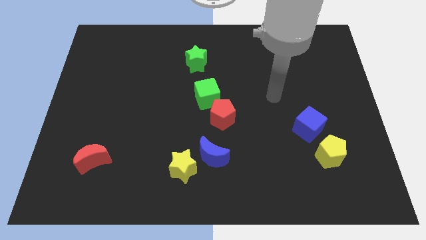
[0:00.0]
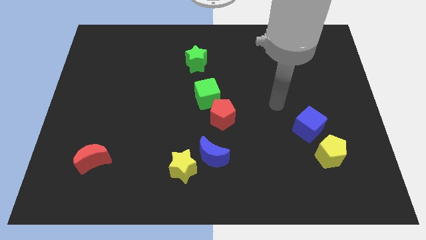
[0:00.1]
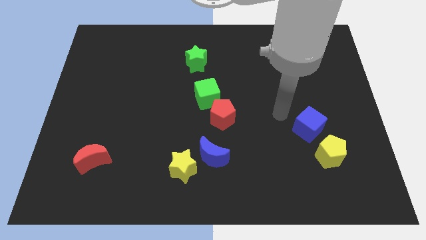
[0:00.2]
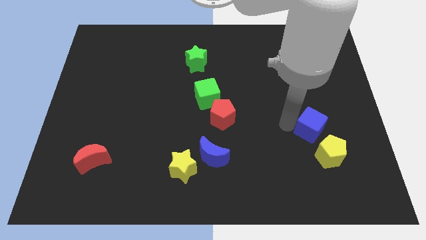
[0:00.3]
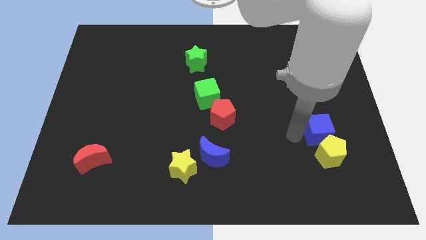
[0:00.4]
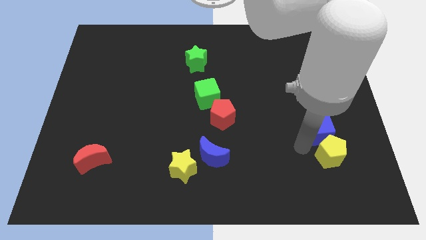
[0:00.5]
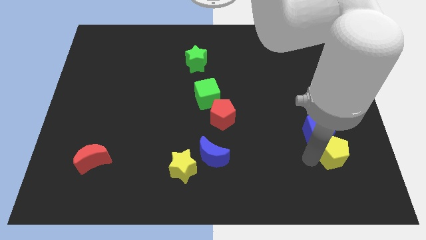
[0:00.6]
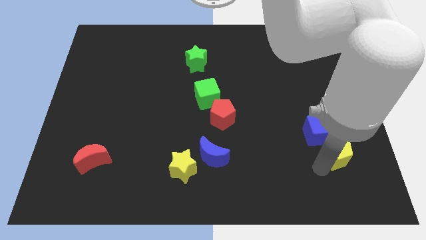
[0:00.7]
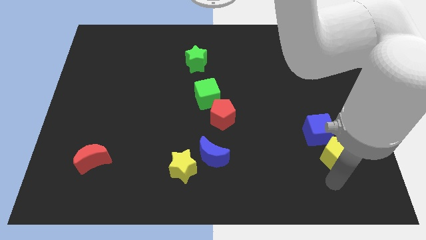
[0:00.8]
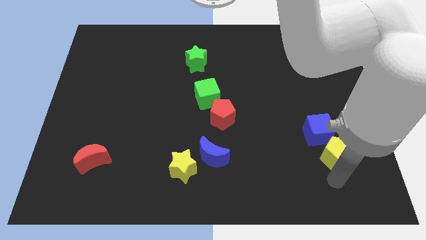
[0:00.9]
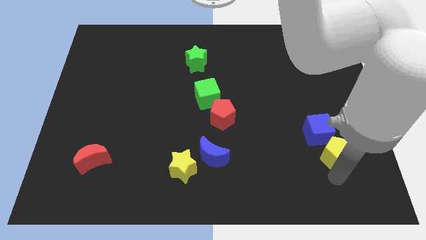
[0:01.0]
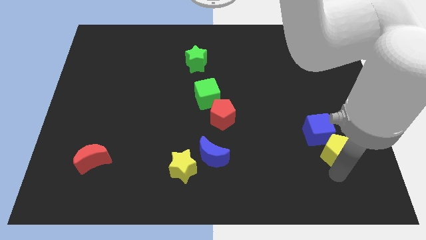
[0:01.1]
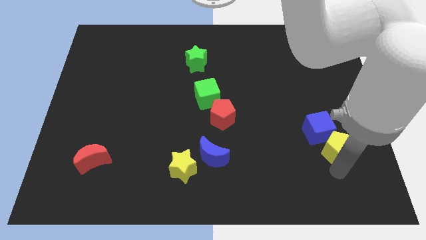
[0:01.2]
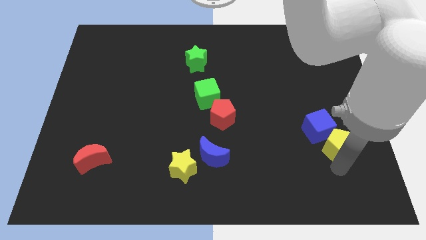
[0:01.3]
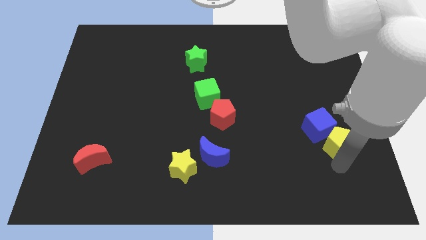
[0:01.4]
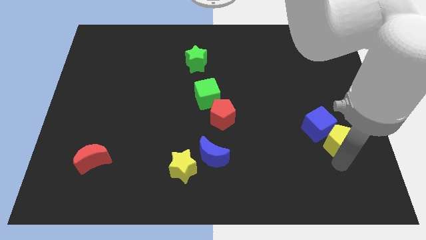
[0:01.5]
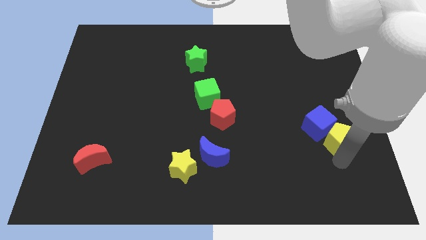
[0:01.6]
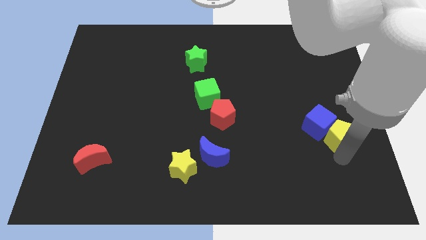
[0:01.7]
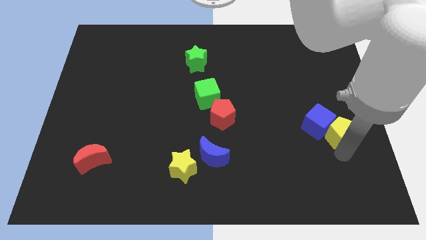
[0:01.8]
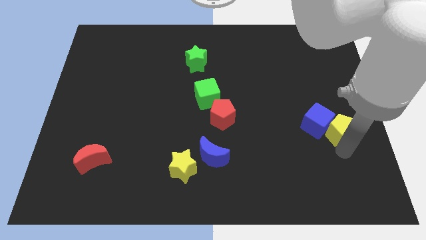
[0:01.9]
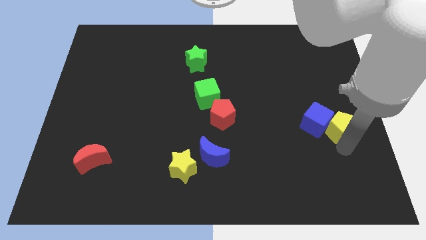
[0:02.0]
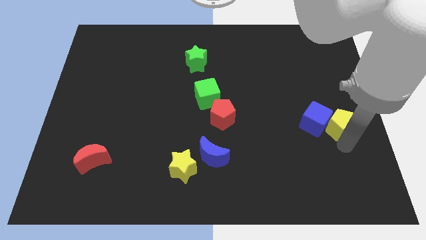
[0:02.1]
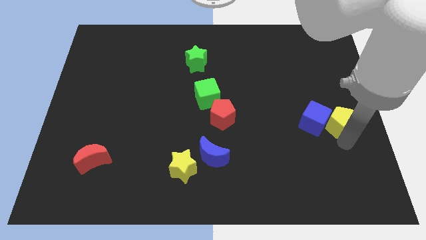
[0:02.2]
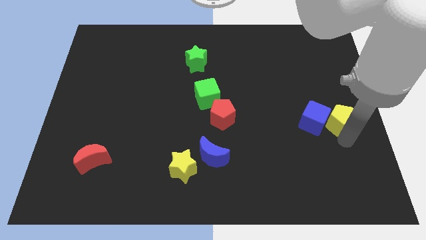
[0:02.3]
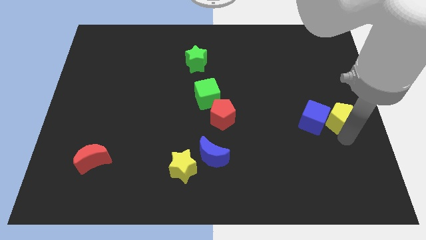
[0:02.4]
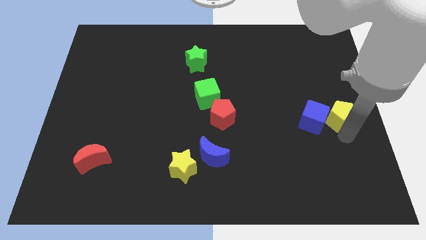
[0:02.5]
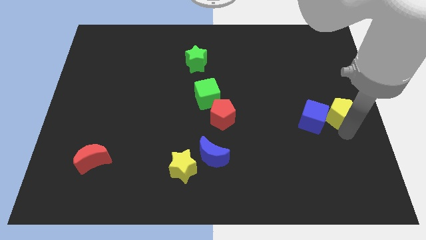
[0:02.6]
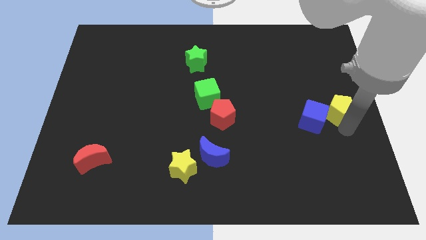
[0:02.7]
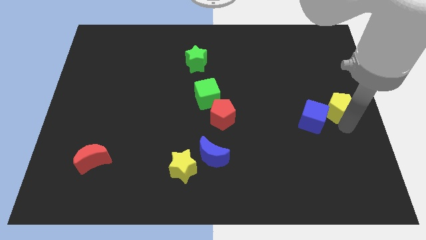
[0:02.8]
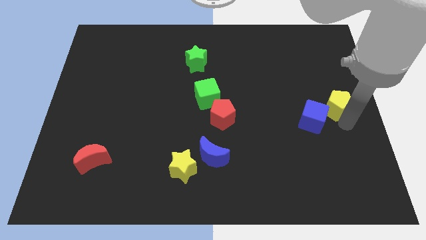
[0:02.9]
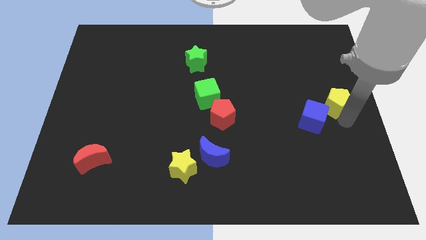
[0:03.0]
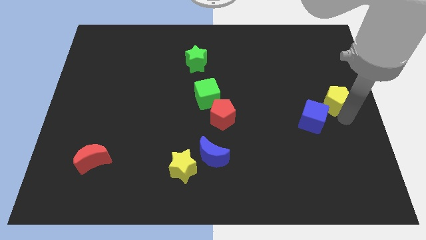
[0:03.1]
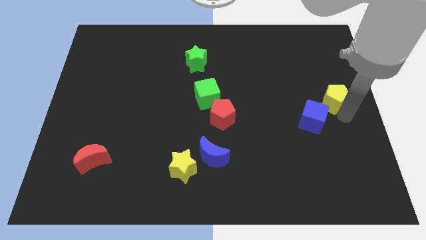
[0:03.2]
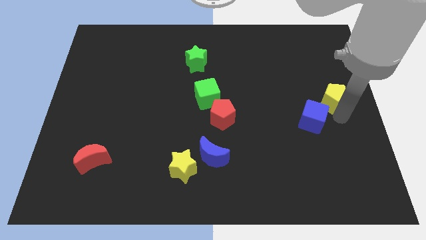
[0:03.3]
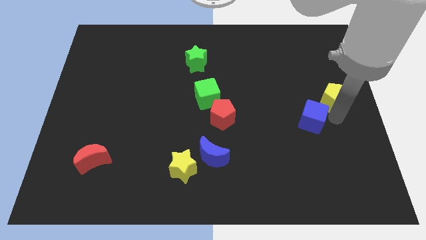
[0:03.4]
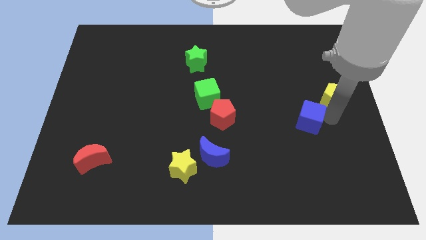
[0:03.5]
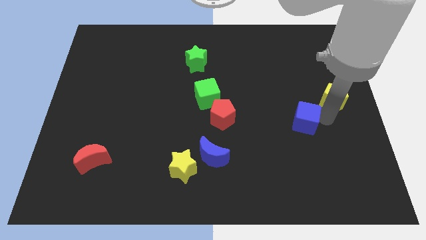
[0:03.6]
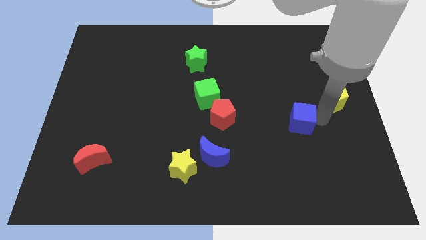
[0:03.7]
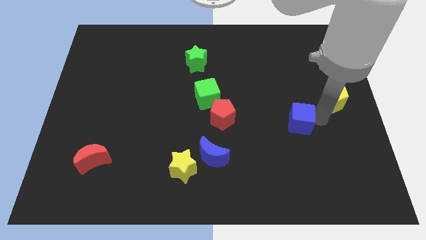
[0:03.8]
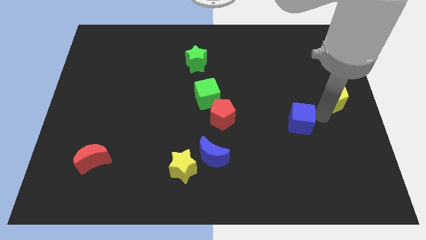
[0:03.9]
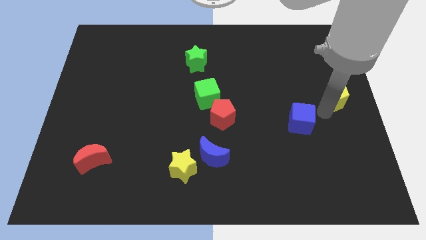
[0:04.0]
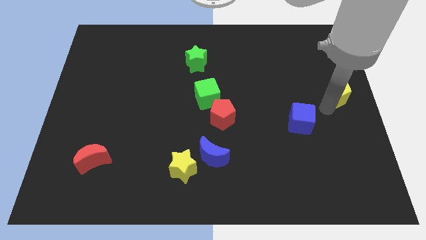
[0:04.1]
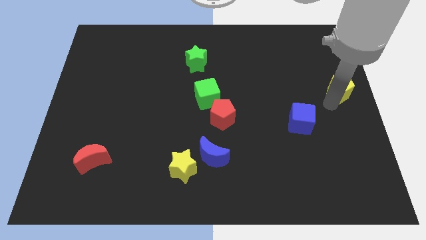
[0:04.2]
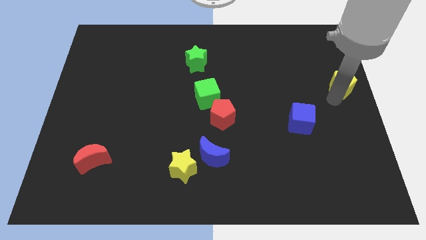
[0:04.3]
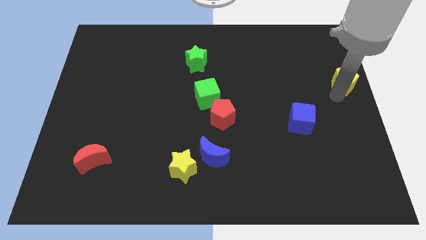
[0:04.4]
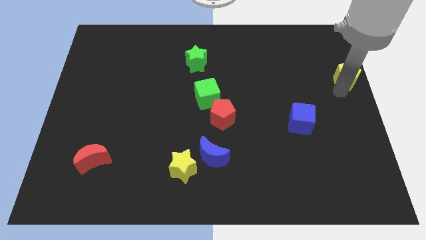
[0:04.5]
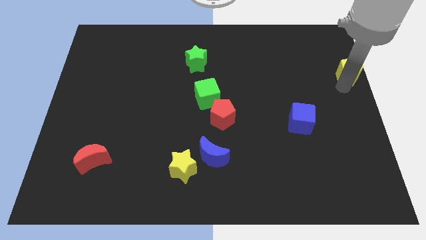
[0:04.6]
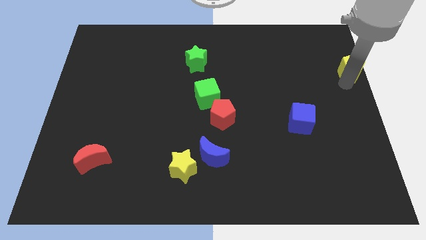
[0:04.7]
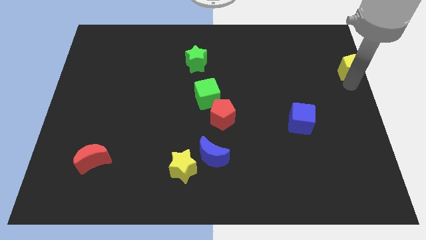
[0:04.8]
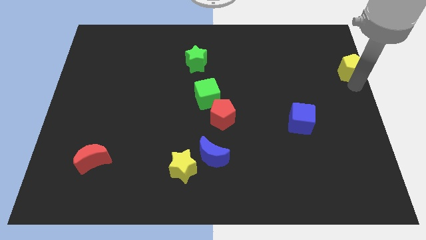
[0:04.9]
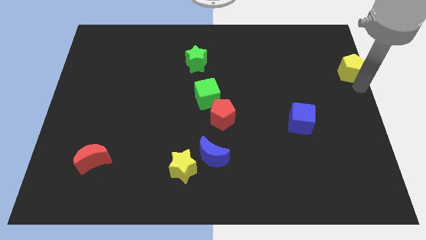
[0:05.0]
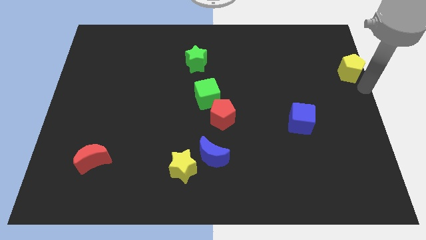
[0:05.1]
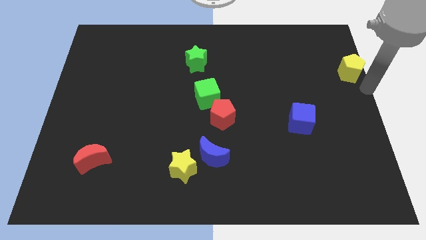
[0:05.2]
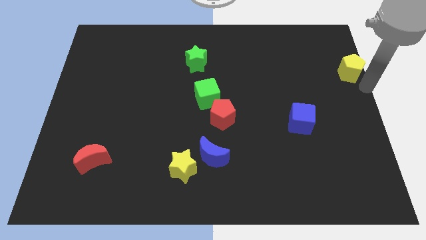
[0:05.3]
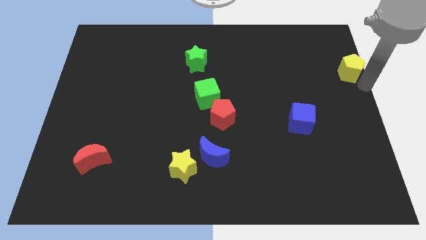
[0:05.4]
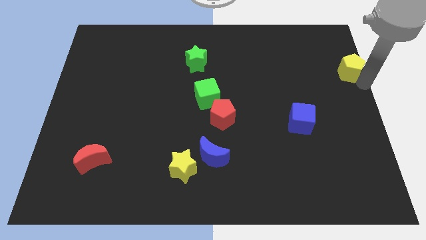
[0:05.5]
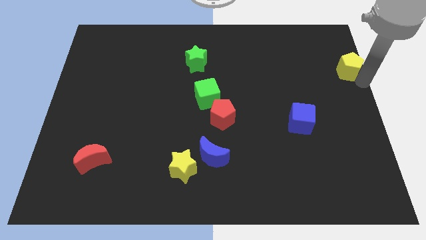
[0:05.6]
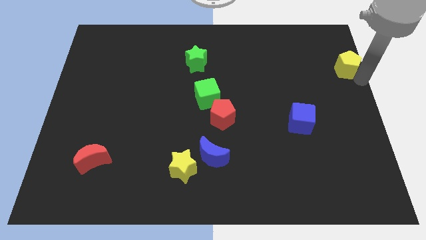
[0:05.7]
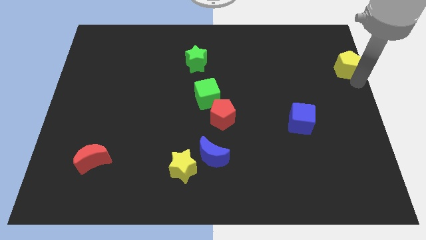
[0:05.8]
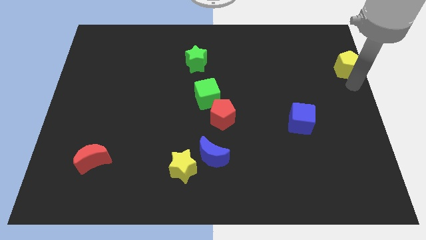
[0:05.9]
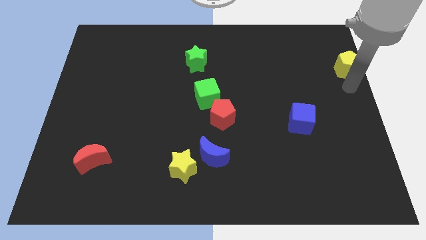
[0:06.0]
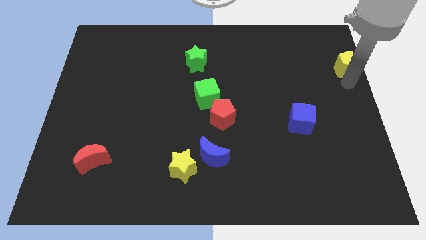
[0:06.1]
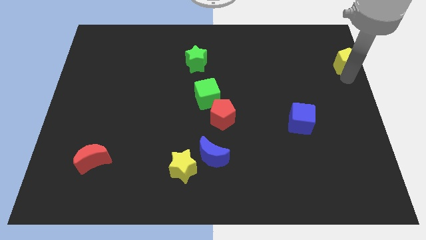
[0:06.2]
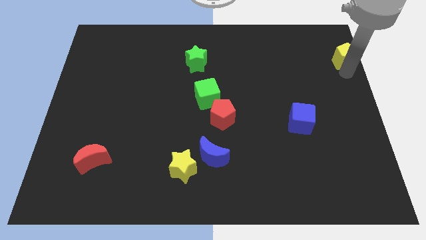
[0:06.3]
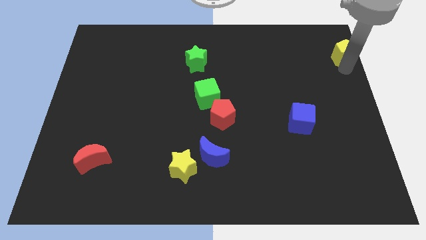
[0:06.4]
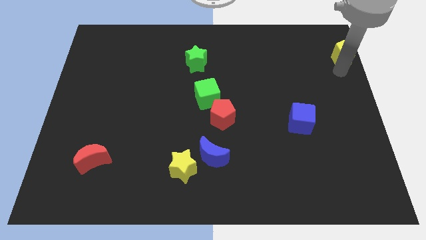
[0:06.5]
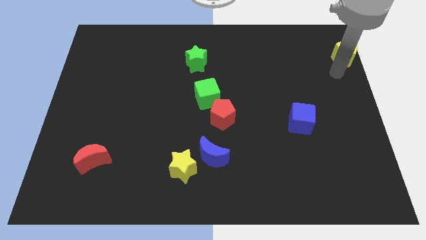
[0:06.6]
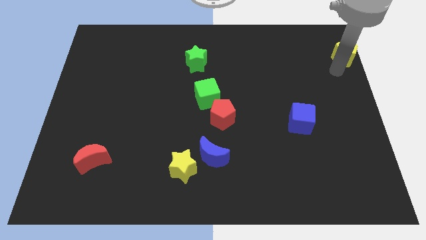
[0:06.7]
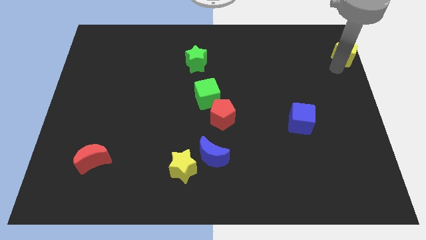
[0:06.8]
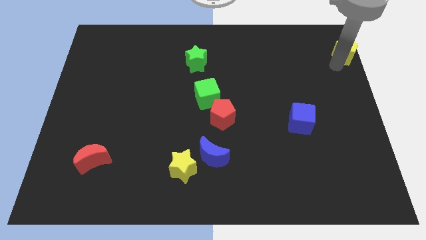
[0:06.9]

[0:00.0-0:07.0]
slide the yellow pentagon to the top right of the board

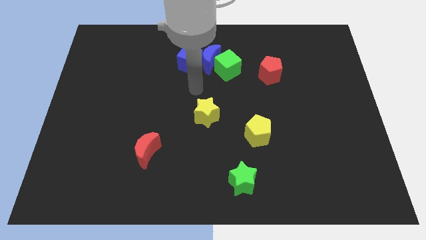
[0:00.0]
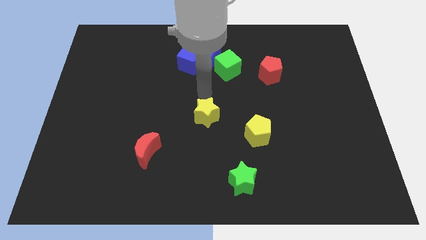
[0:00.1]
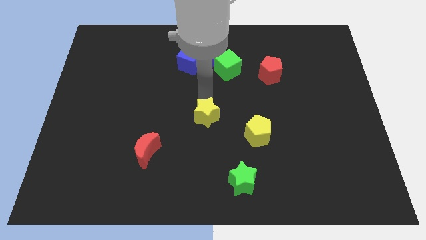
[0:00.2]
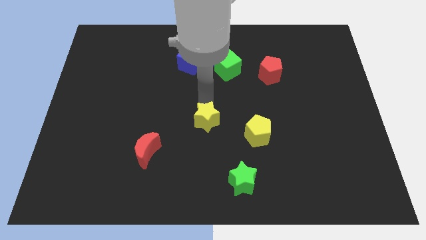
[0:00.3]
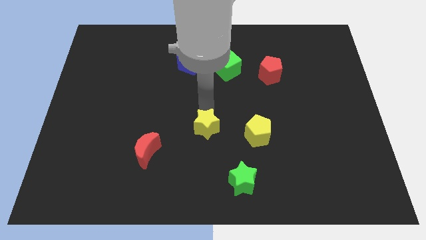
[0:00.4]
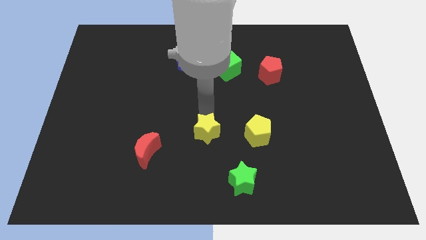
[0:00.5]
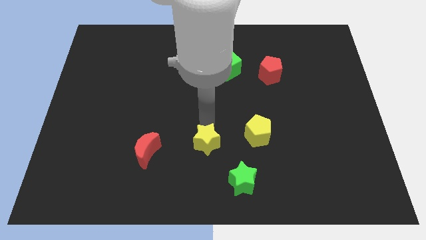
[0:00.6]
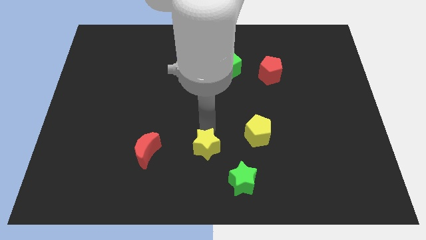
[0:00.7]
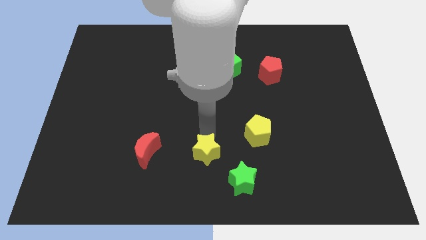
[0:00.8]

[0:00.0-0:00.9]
move the yellow star to the bottom
